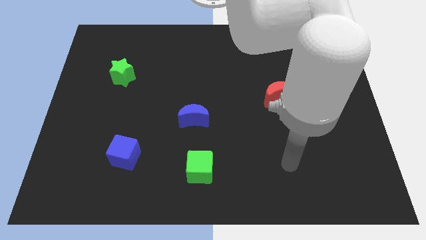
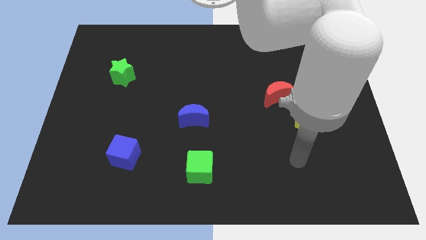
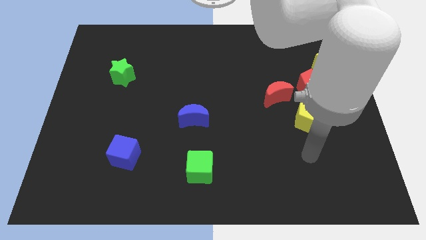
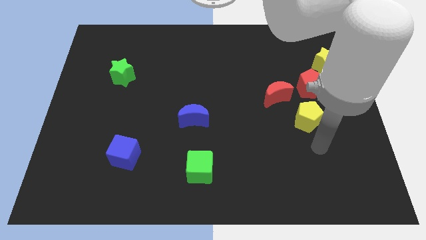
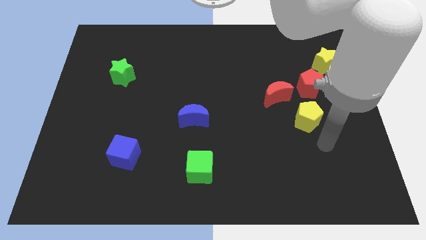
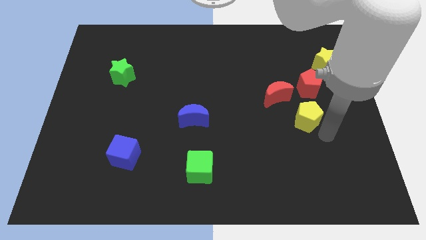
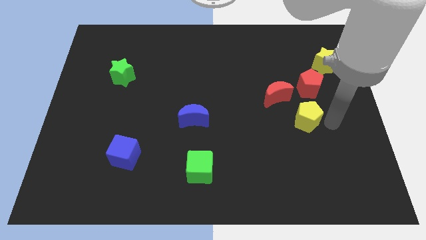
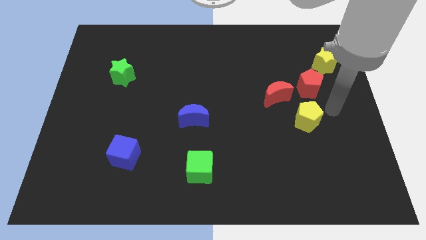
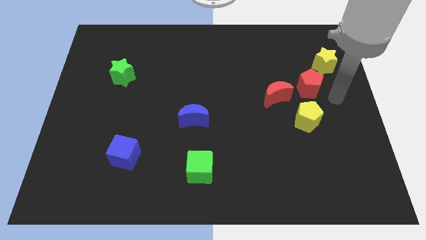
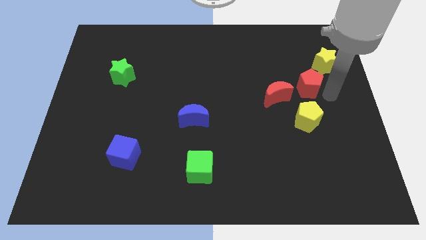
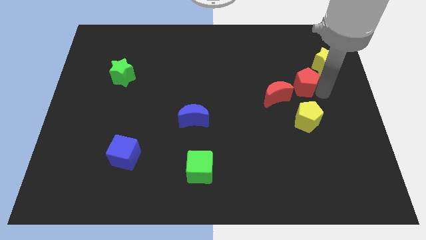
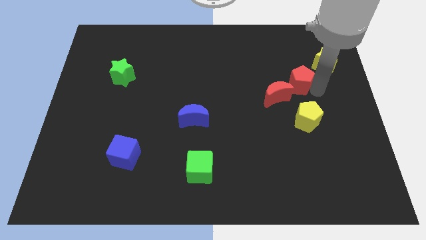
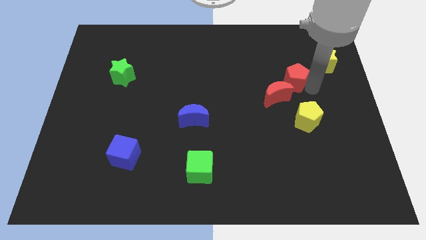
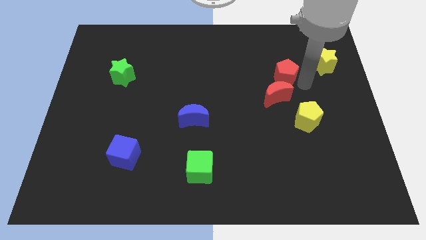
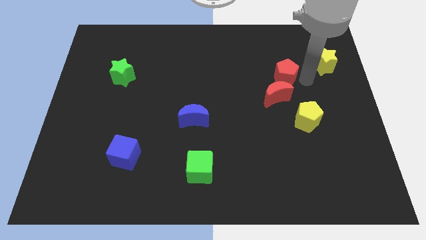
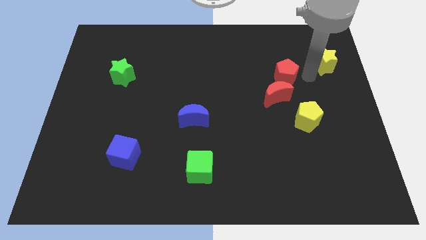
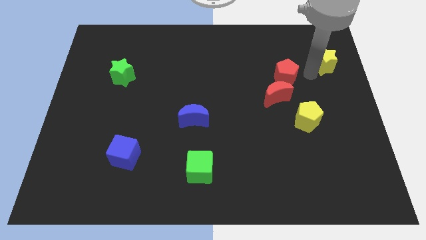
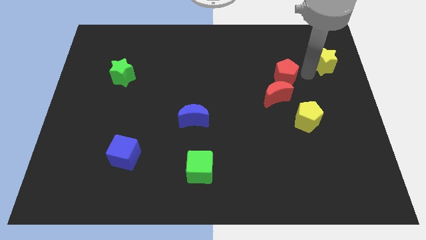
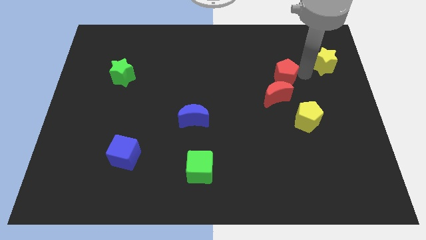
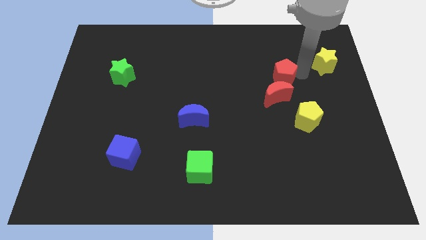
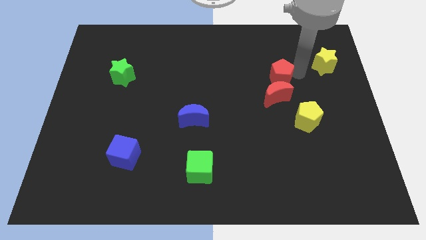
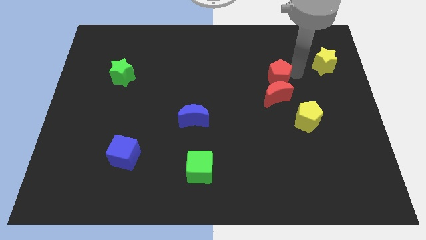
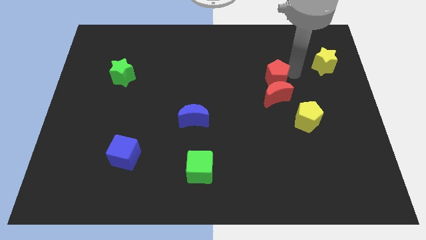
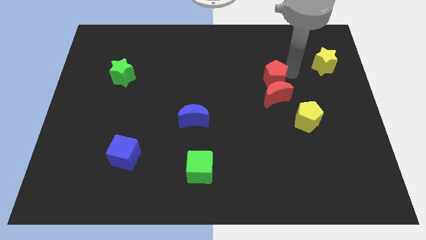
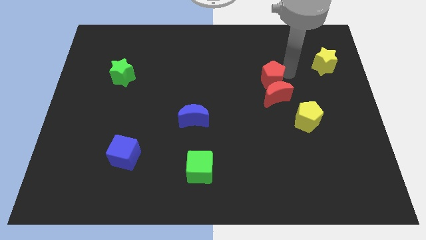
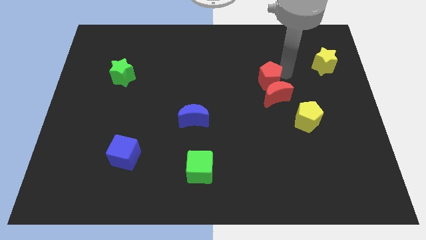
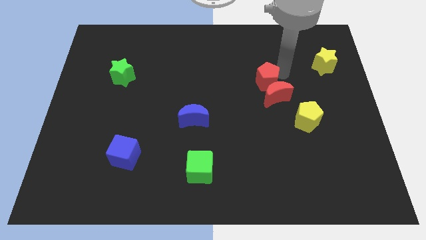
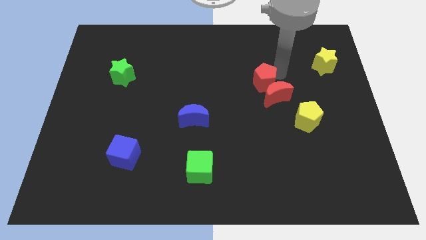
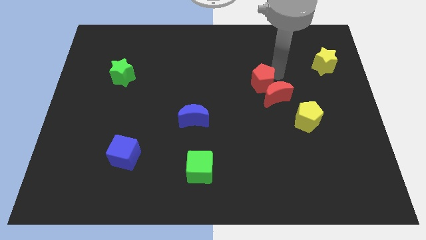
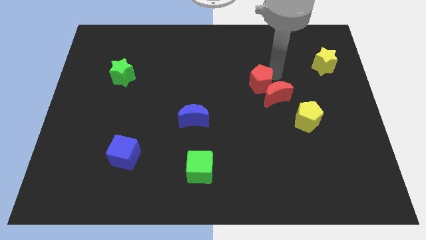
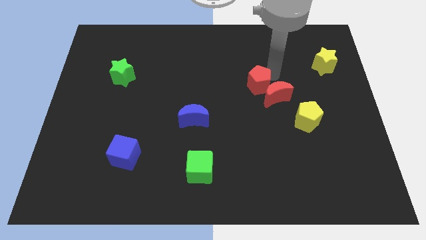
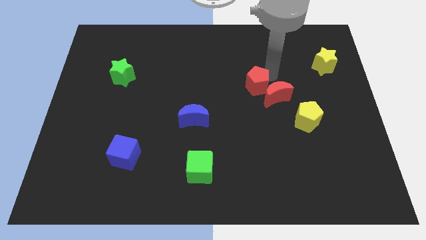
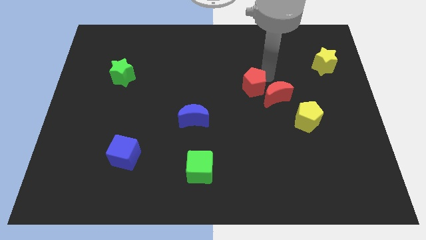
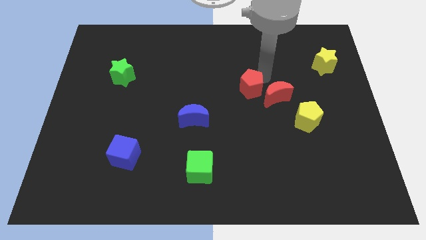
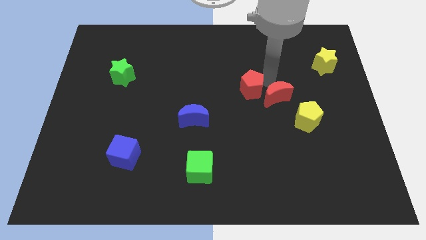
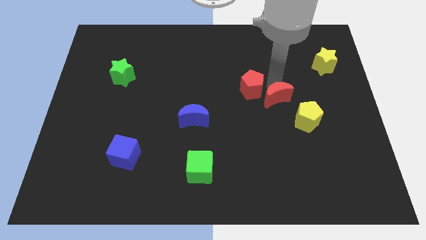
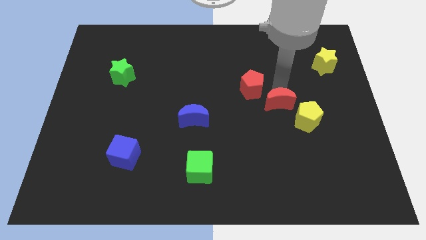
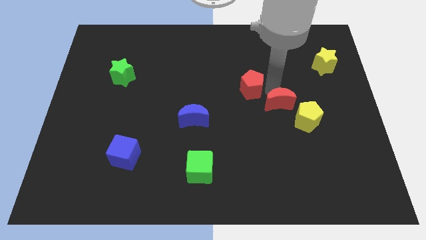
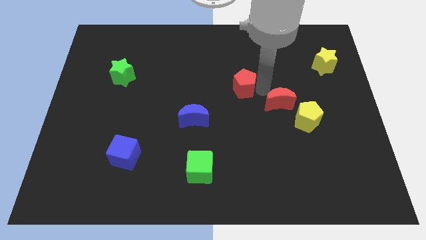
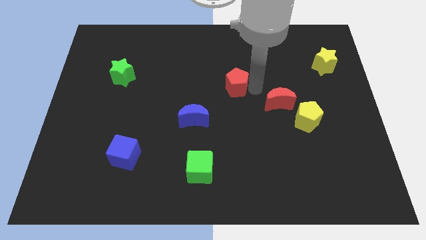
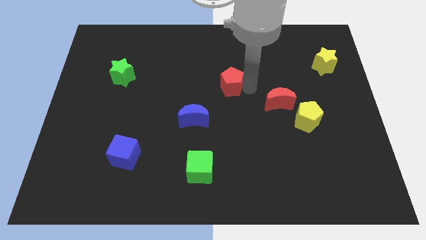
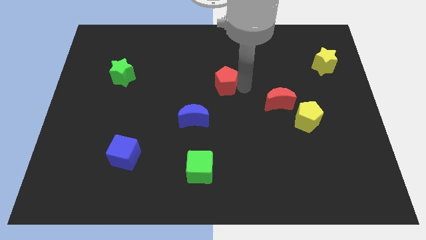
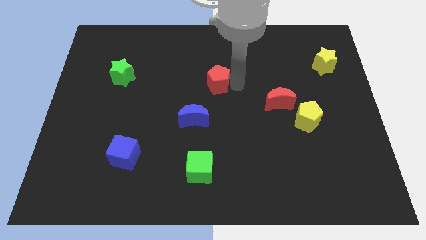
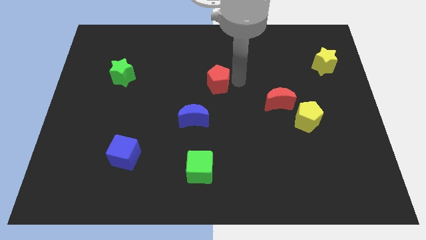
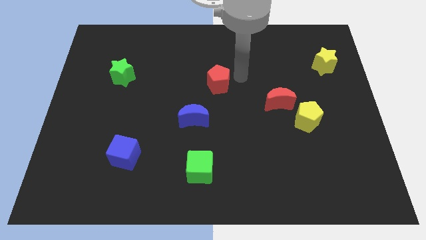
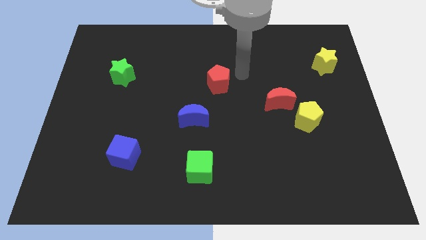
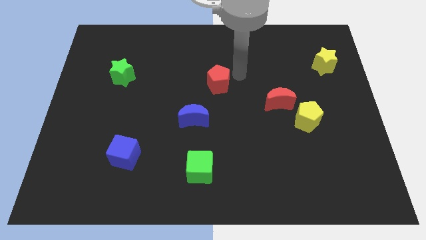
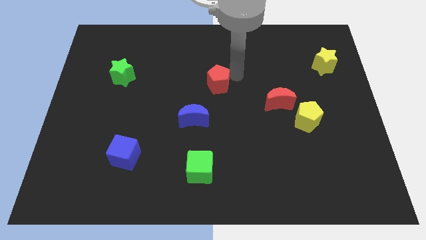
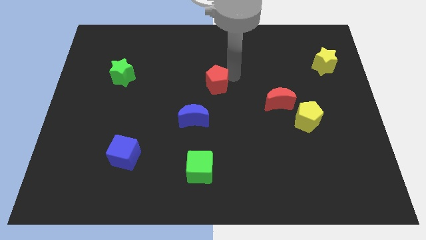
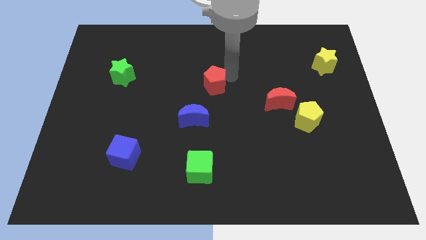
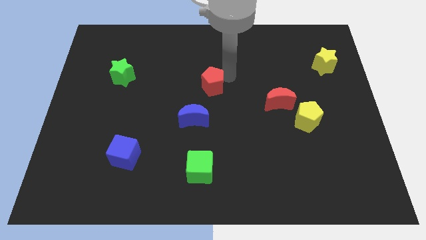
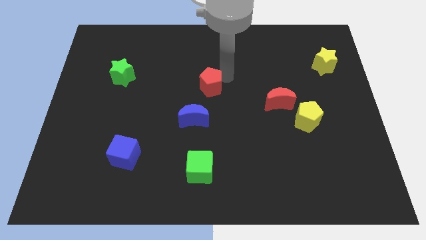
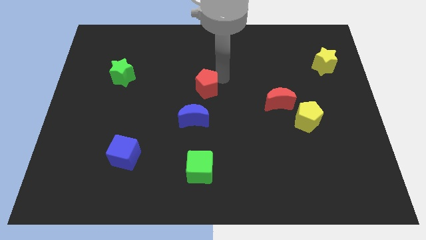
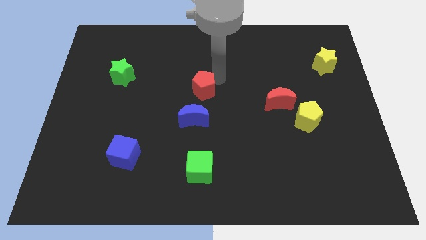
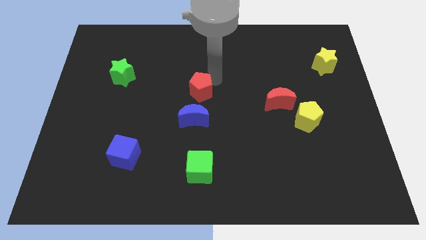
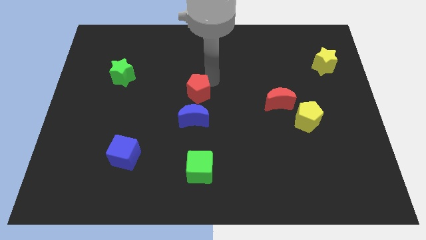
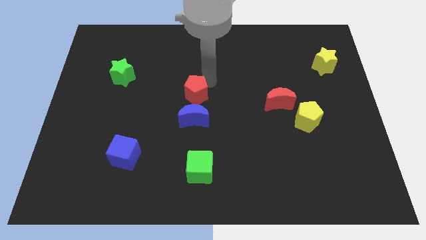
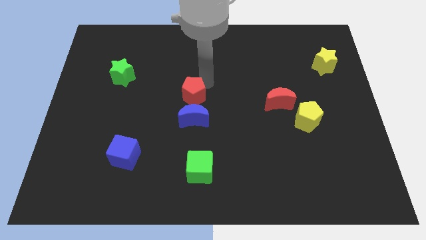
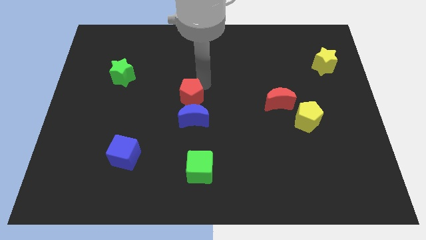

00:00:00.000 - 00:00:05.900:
slide the red pentagon to the top left of the blue moon

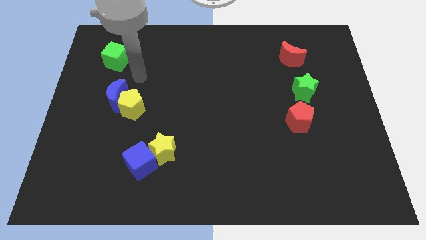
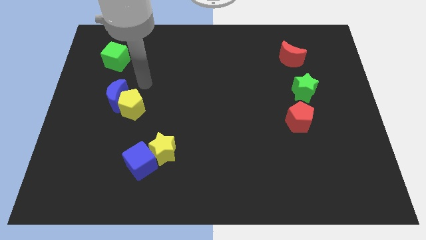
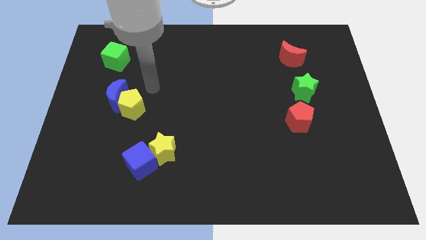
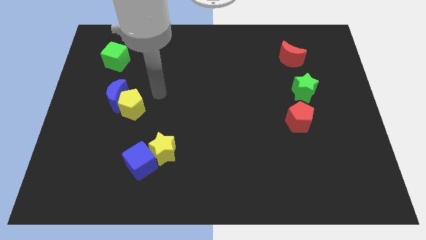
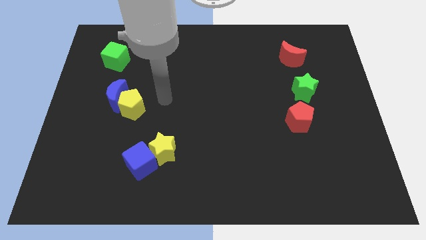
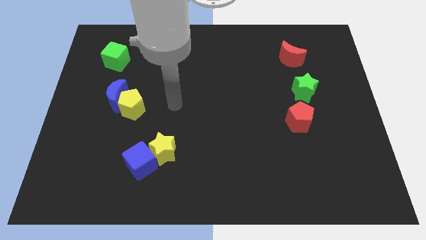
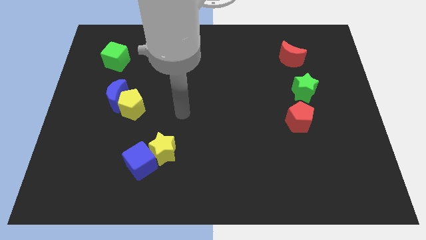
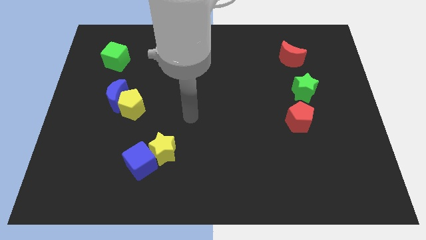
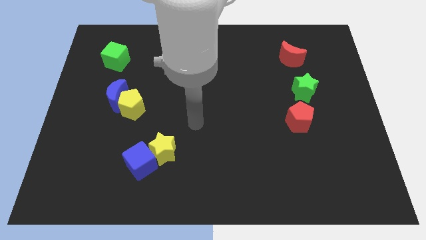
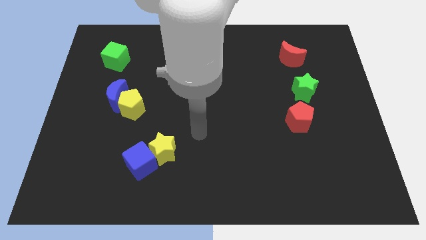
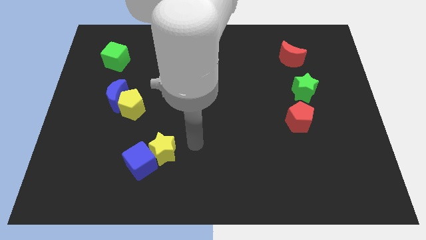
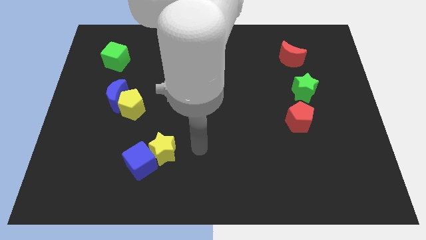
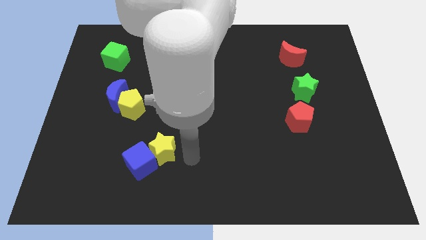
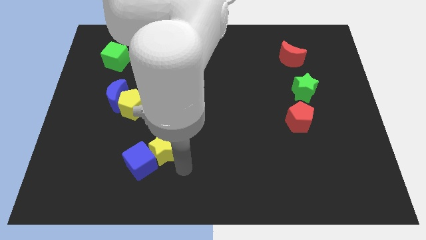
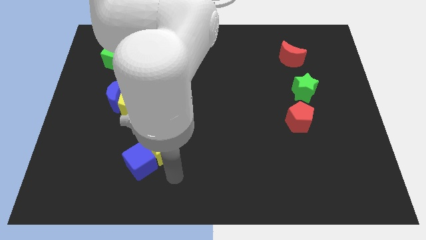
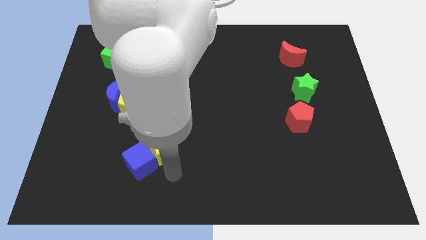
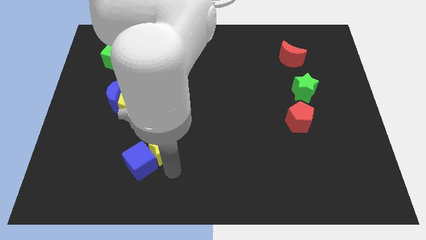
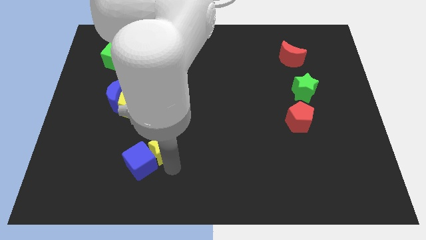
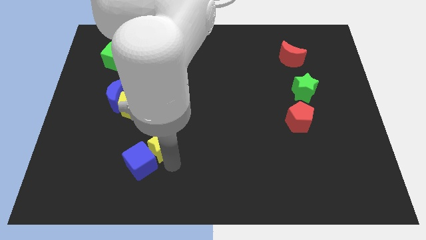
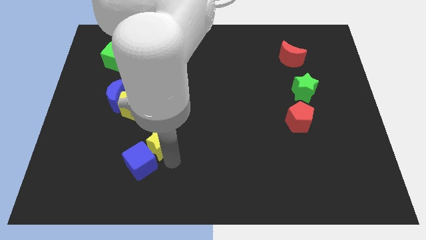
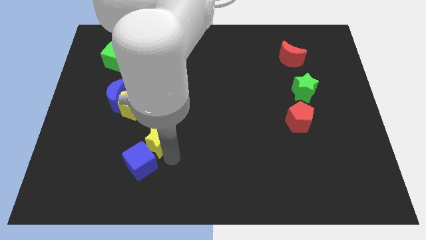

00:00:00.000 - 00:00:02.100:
put the yellow star diagonally down and to the right of the yellow pentagon
